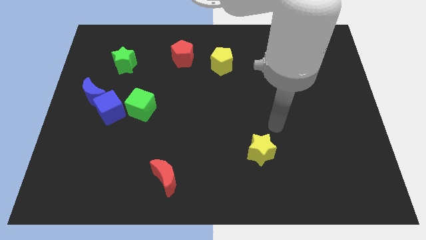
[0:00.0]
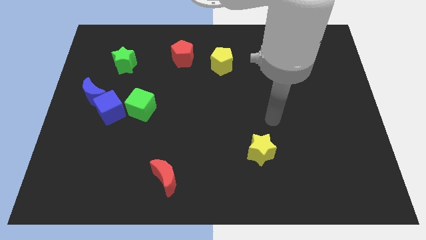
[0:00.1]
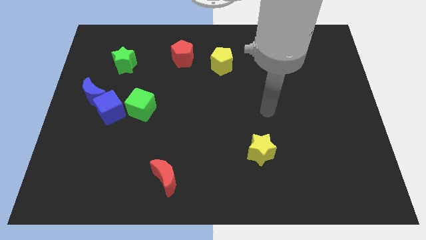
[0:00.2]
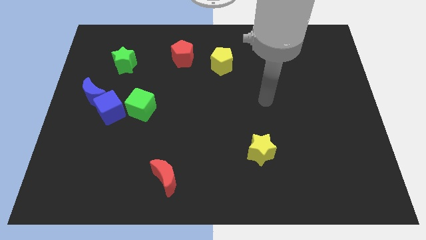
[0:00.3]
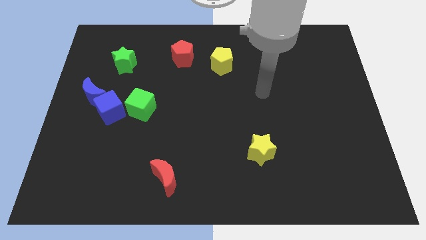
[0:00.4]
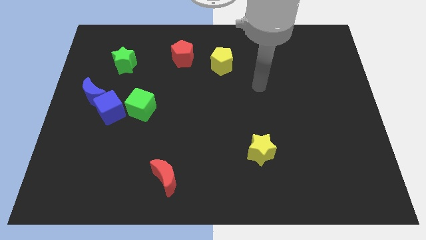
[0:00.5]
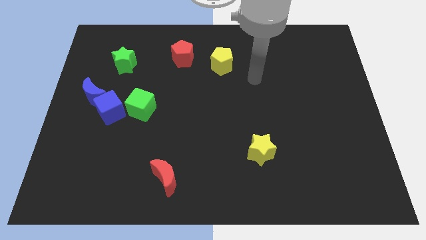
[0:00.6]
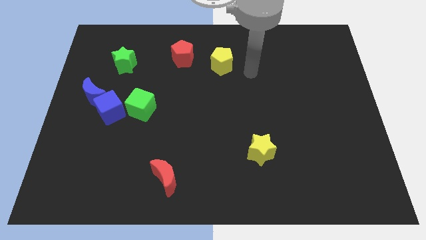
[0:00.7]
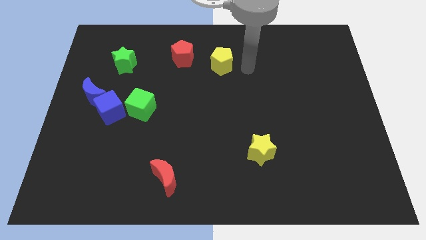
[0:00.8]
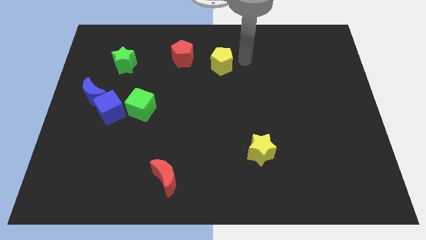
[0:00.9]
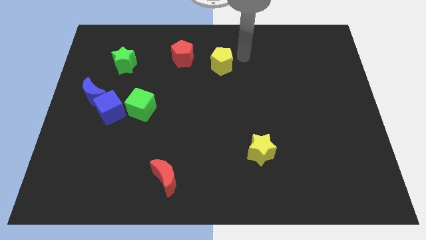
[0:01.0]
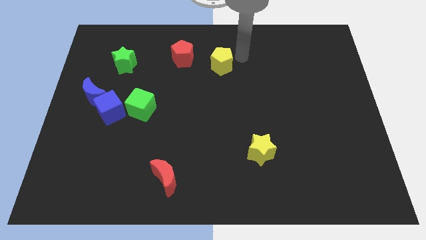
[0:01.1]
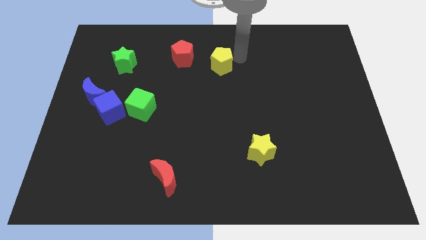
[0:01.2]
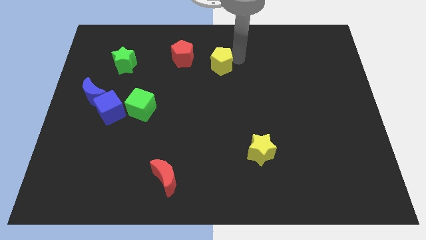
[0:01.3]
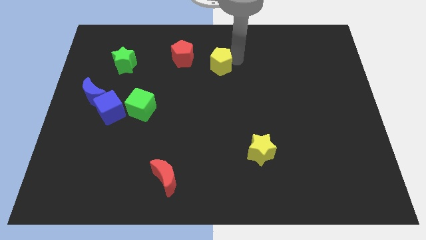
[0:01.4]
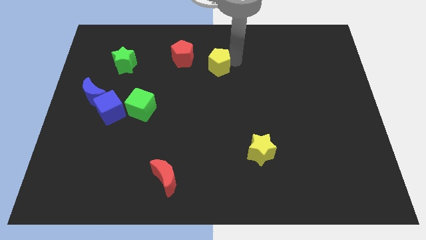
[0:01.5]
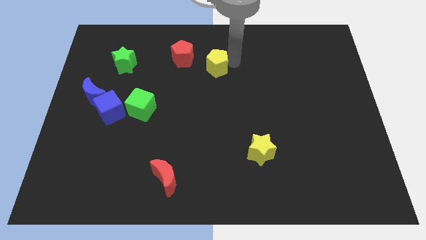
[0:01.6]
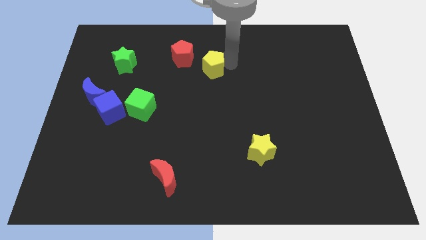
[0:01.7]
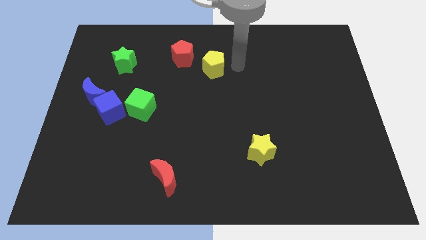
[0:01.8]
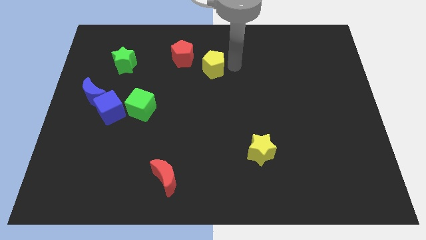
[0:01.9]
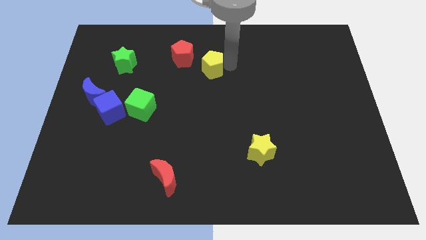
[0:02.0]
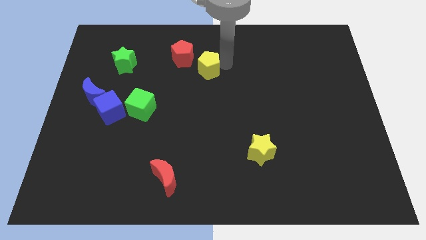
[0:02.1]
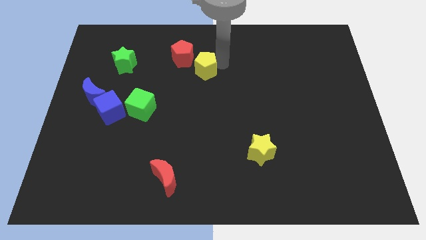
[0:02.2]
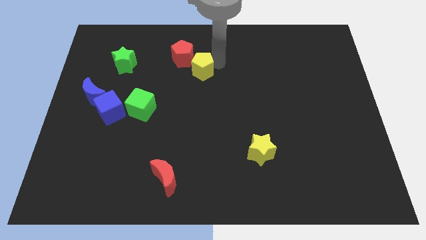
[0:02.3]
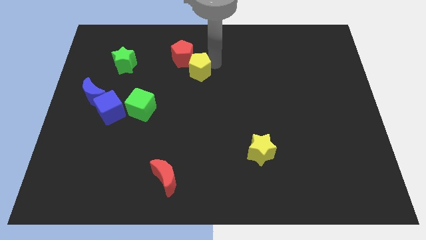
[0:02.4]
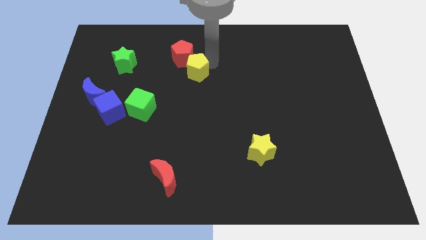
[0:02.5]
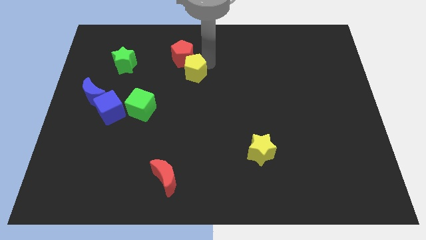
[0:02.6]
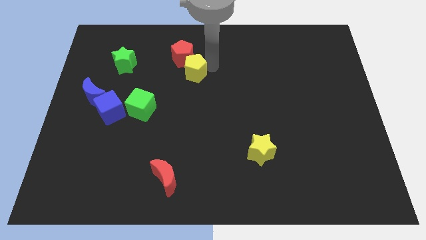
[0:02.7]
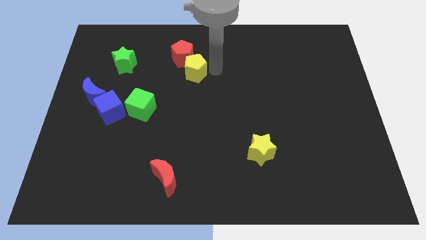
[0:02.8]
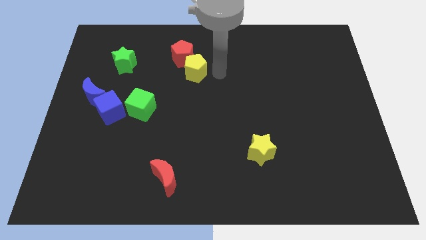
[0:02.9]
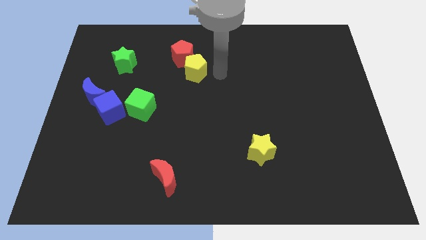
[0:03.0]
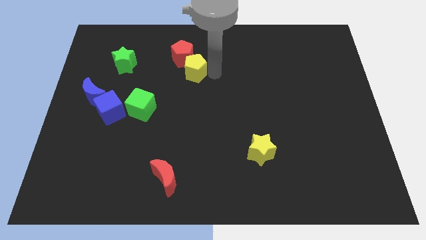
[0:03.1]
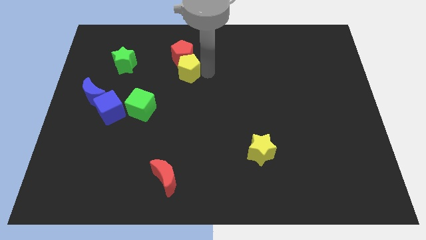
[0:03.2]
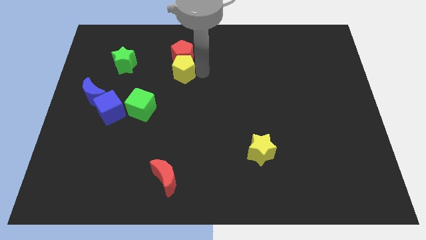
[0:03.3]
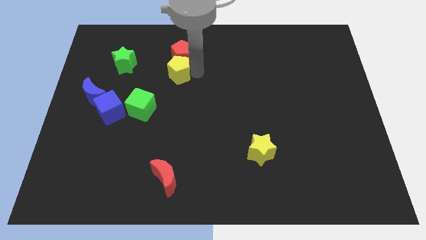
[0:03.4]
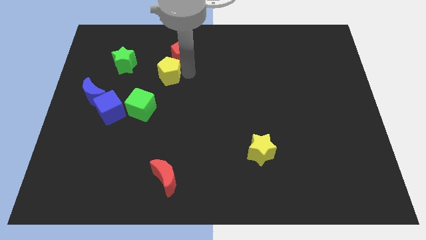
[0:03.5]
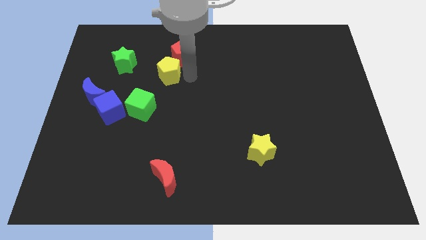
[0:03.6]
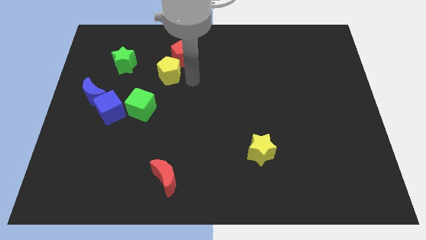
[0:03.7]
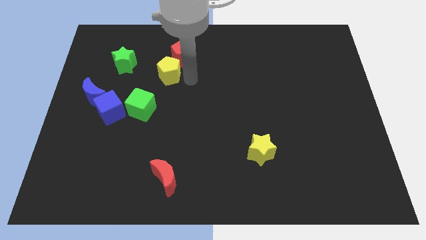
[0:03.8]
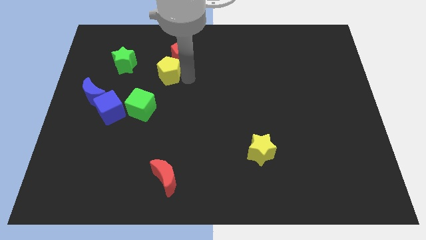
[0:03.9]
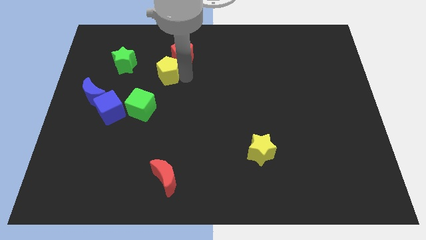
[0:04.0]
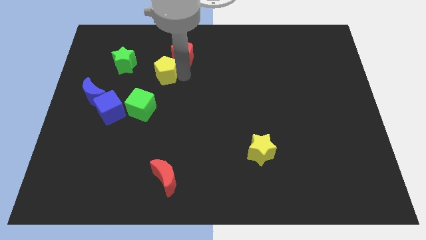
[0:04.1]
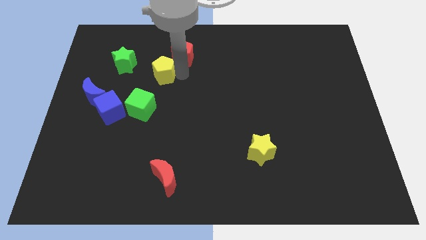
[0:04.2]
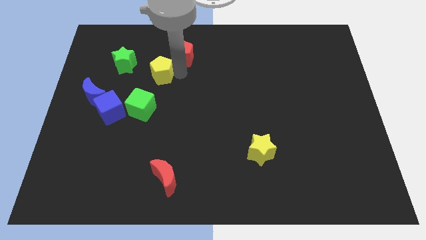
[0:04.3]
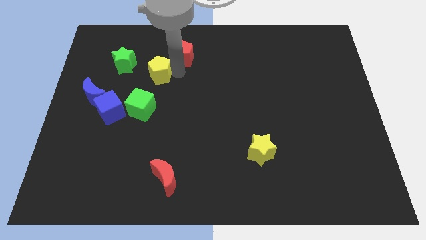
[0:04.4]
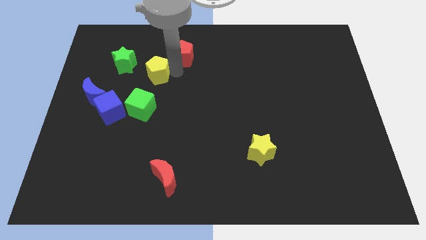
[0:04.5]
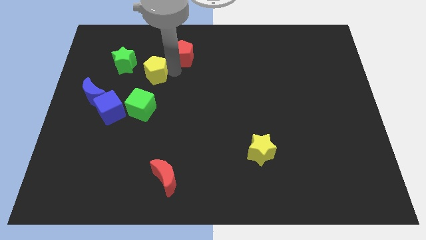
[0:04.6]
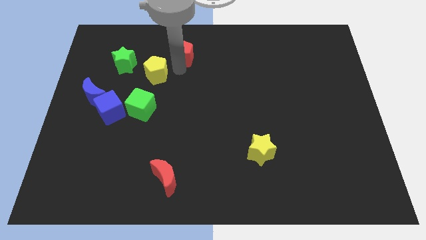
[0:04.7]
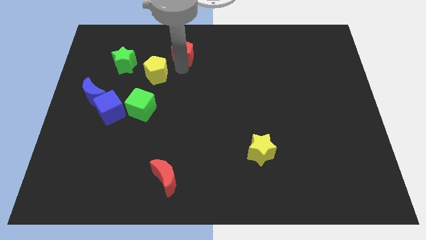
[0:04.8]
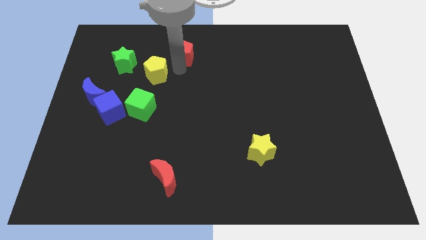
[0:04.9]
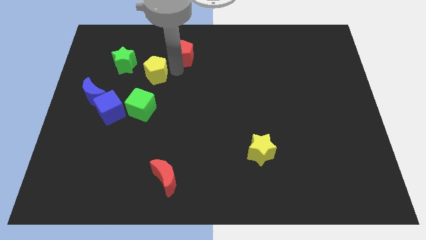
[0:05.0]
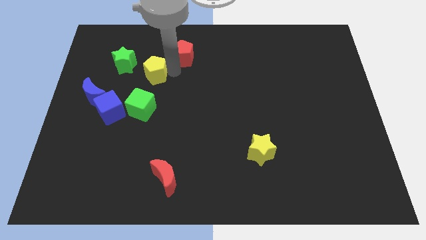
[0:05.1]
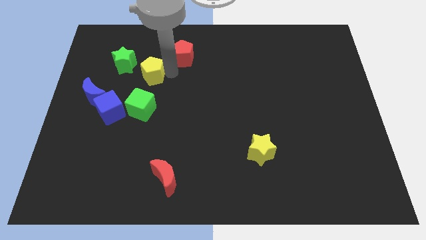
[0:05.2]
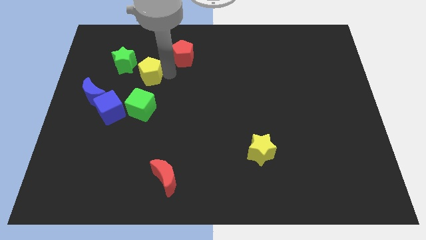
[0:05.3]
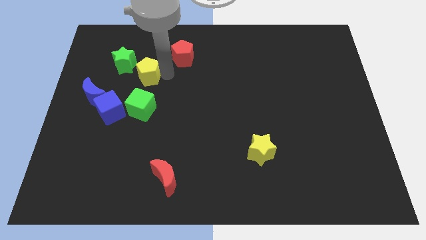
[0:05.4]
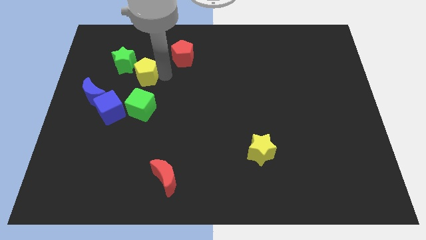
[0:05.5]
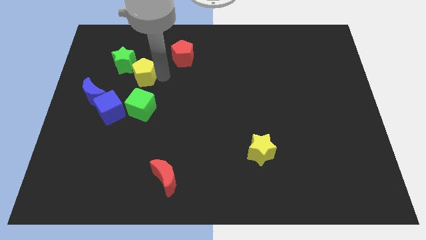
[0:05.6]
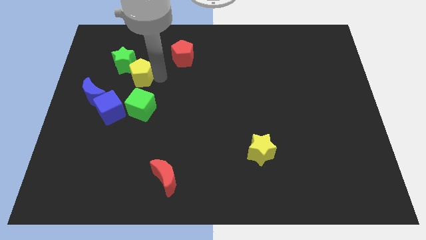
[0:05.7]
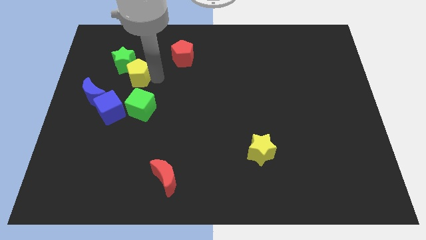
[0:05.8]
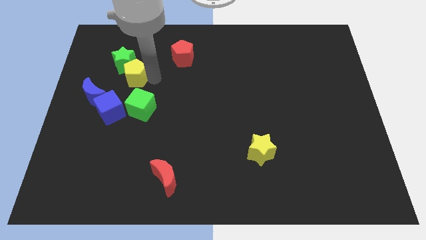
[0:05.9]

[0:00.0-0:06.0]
put the yellow pentagon above the blue cube

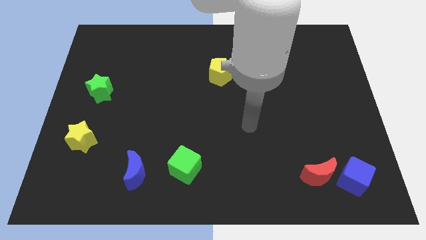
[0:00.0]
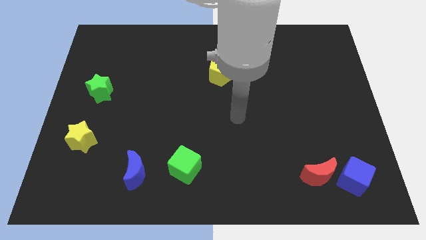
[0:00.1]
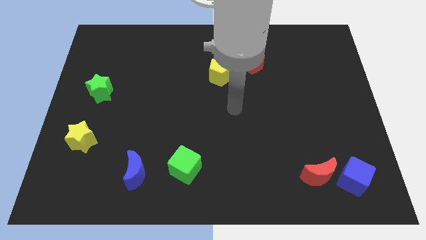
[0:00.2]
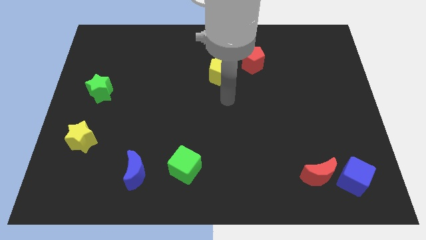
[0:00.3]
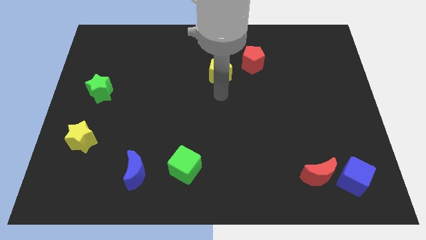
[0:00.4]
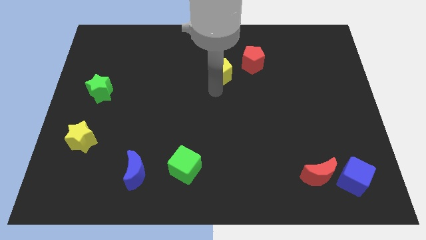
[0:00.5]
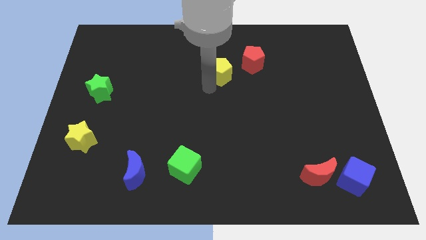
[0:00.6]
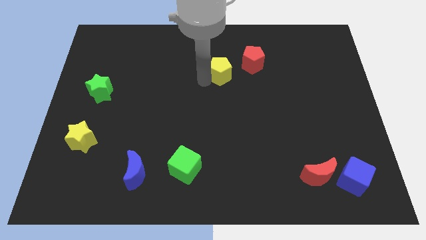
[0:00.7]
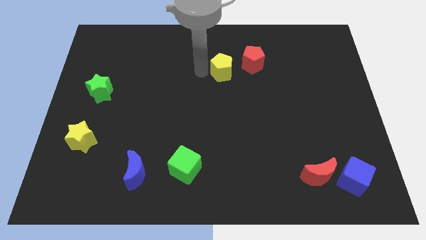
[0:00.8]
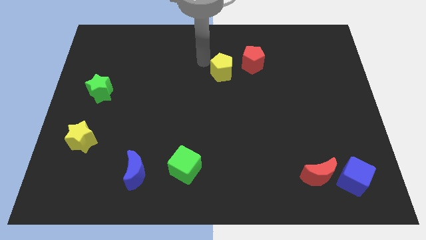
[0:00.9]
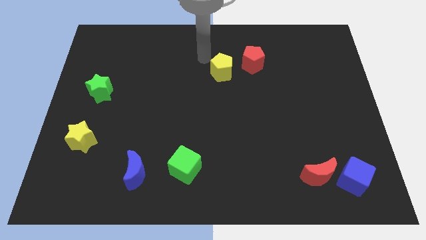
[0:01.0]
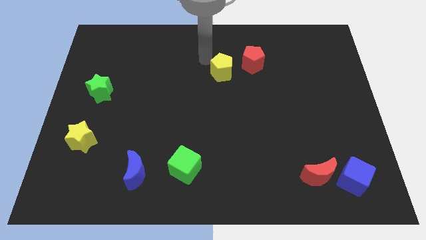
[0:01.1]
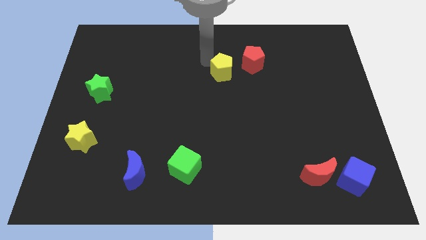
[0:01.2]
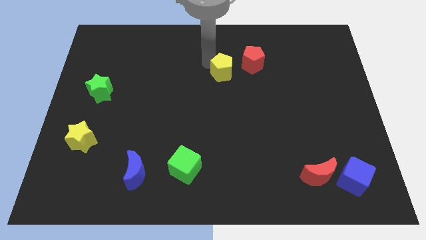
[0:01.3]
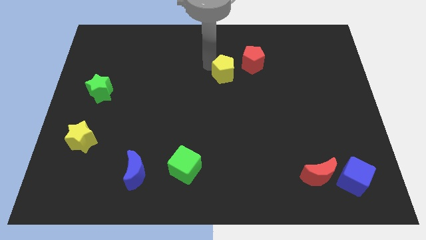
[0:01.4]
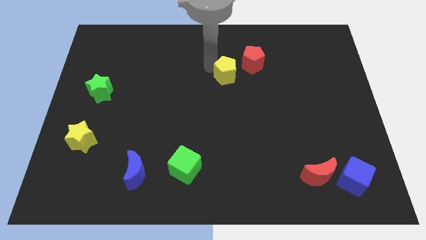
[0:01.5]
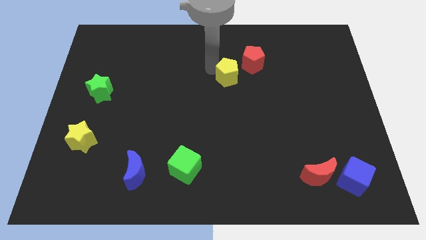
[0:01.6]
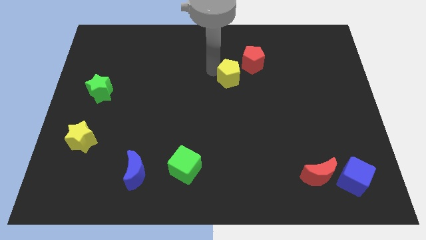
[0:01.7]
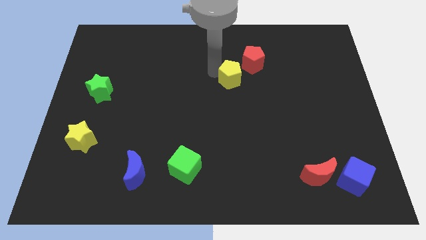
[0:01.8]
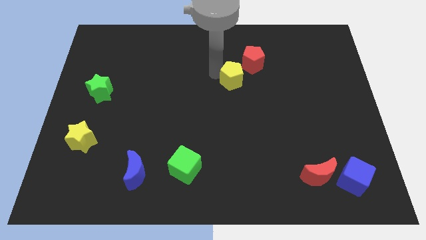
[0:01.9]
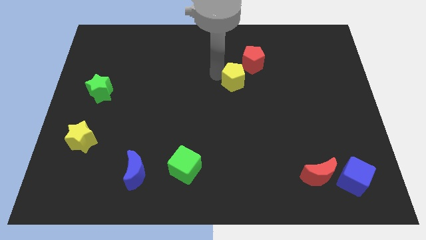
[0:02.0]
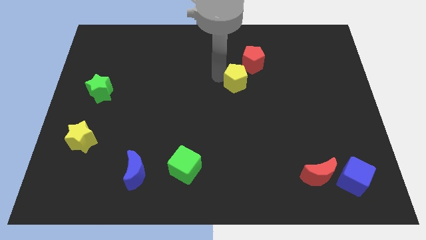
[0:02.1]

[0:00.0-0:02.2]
move the yellow pentagon to the bottom side of the red pentagon
